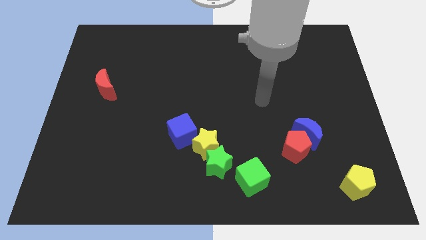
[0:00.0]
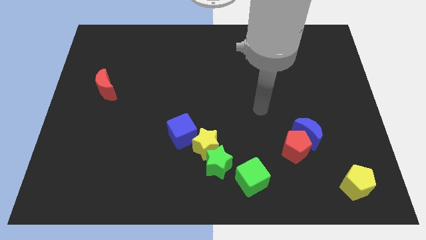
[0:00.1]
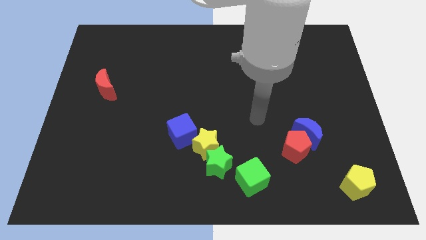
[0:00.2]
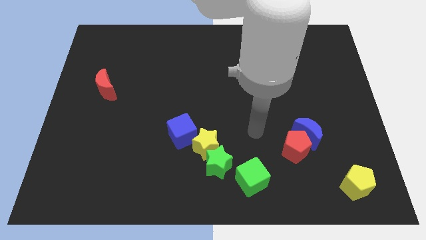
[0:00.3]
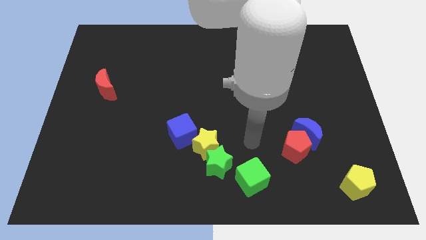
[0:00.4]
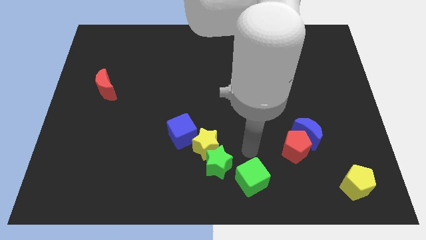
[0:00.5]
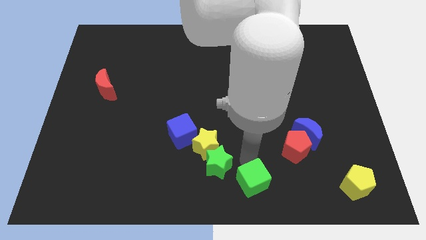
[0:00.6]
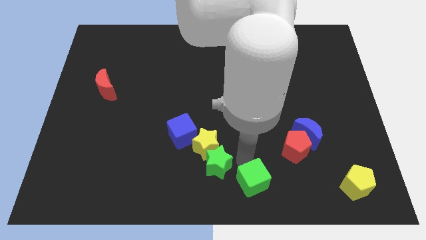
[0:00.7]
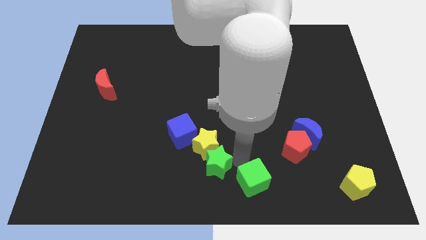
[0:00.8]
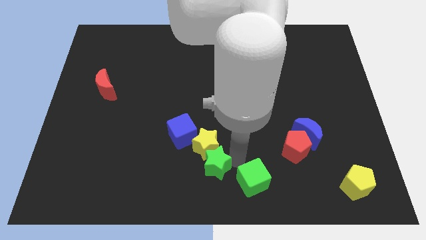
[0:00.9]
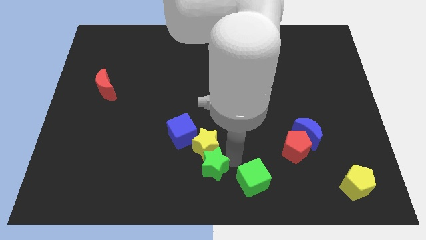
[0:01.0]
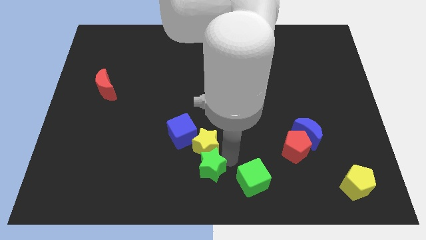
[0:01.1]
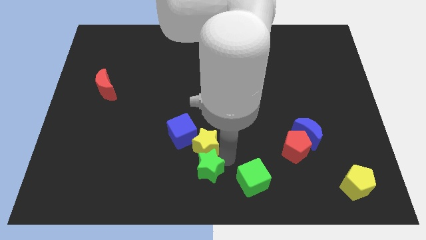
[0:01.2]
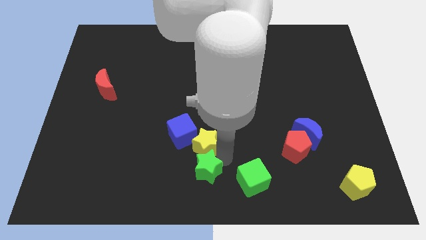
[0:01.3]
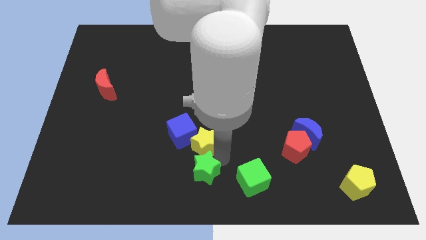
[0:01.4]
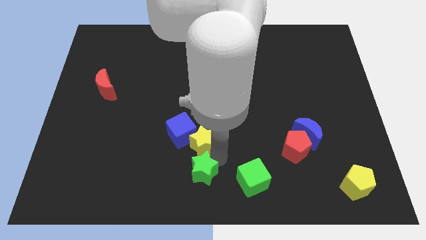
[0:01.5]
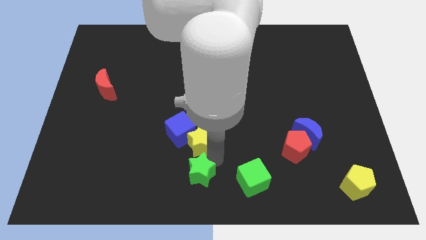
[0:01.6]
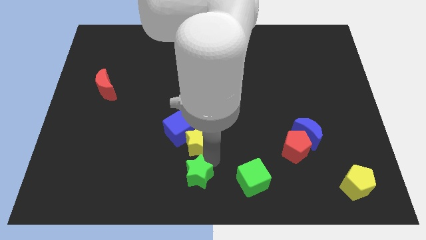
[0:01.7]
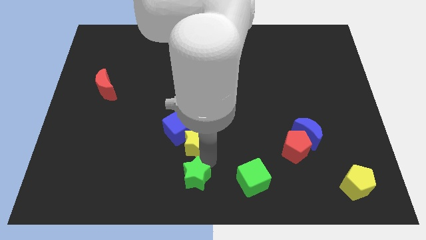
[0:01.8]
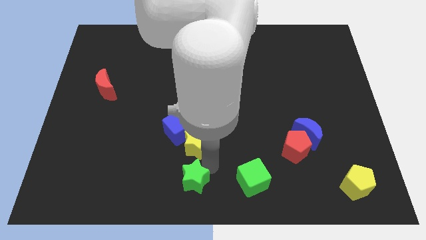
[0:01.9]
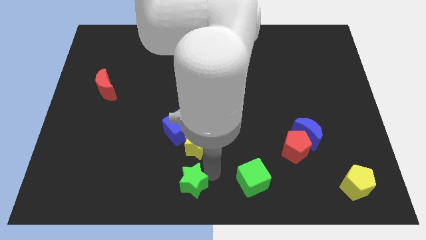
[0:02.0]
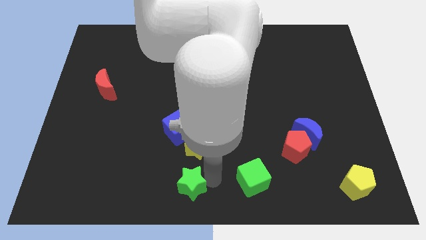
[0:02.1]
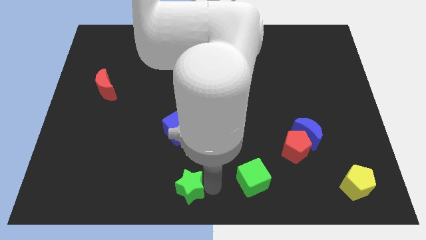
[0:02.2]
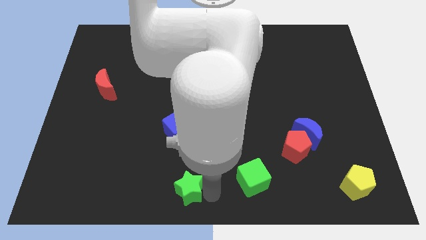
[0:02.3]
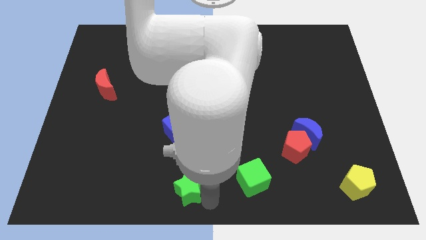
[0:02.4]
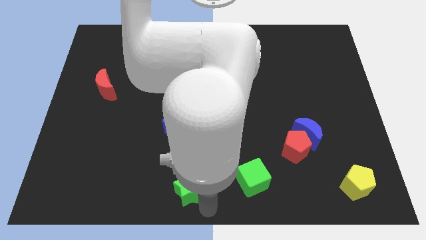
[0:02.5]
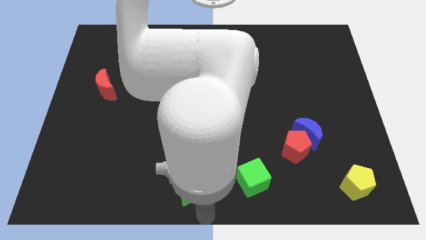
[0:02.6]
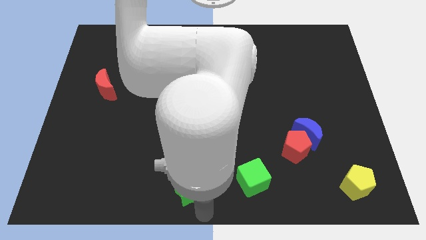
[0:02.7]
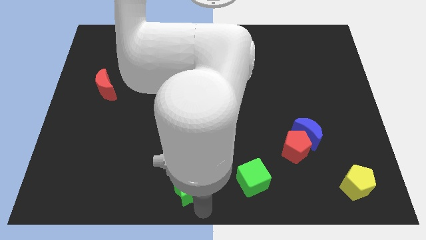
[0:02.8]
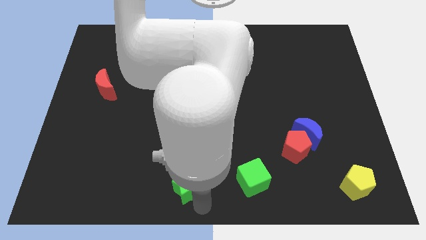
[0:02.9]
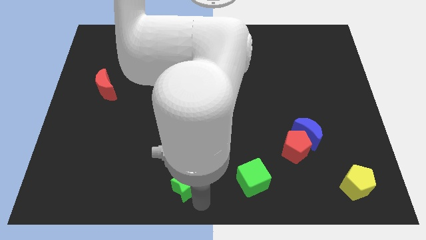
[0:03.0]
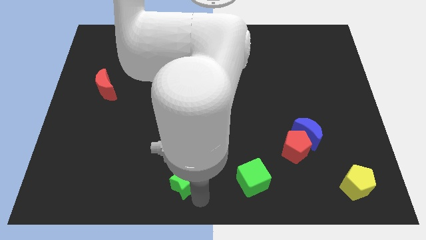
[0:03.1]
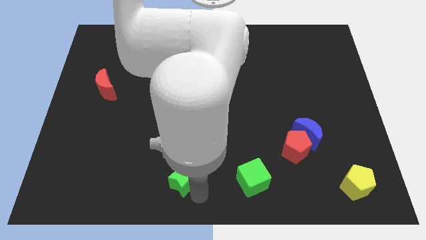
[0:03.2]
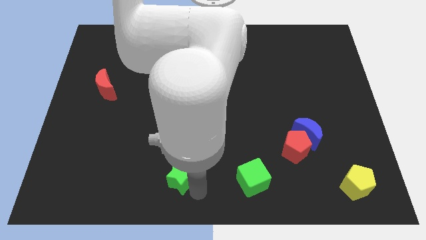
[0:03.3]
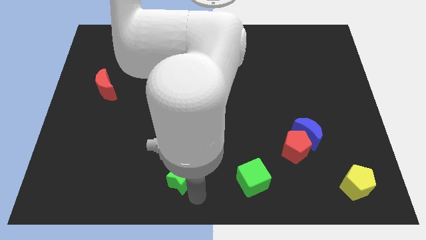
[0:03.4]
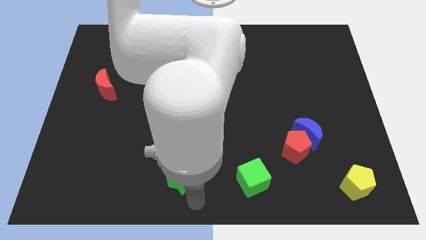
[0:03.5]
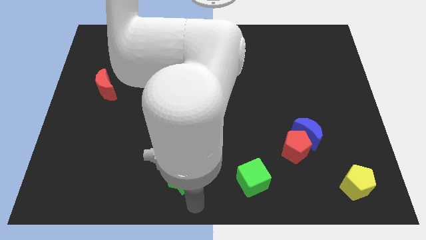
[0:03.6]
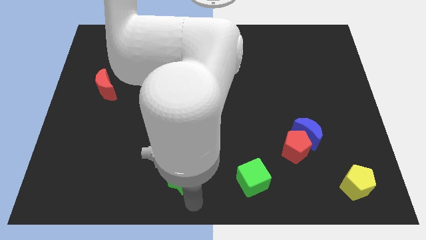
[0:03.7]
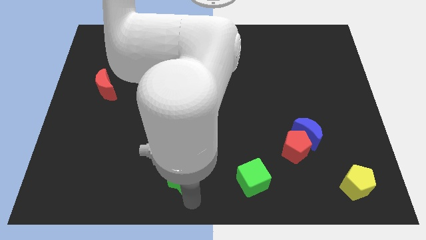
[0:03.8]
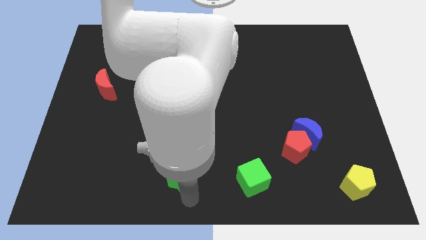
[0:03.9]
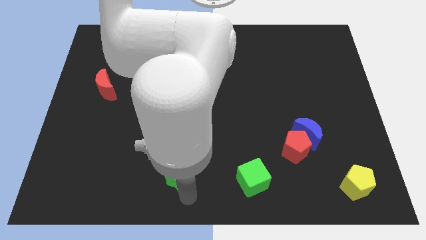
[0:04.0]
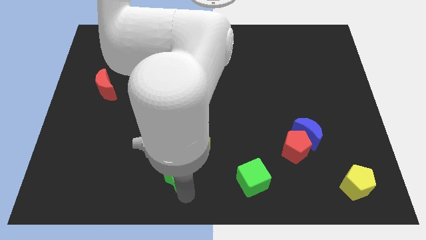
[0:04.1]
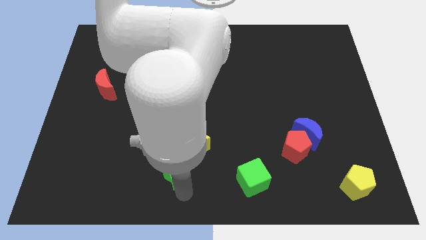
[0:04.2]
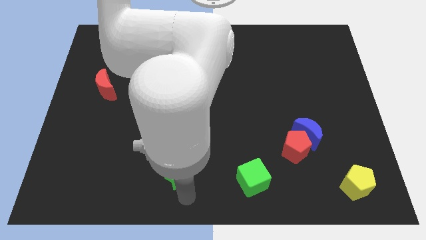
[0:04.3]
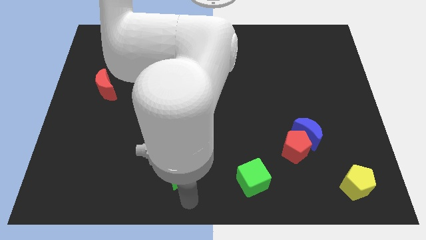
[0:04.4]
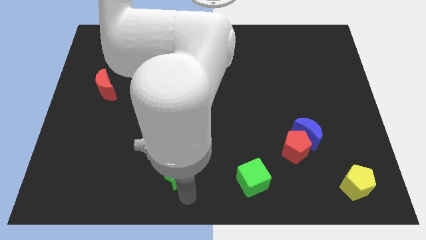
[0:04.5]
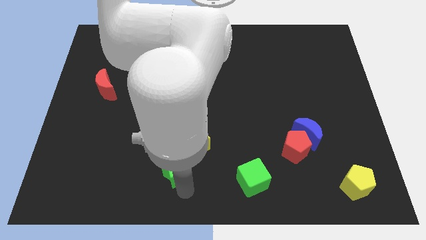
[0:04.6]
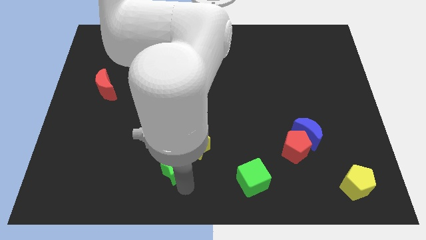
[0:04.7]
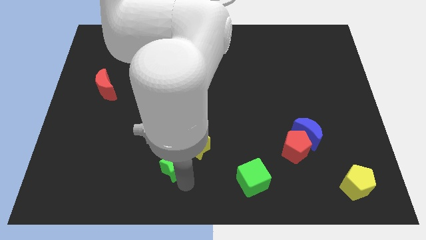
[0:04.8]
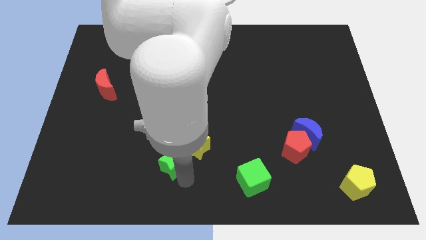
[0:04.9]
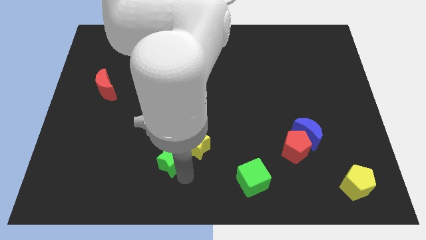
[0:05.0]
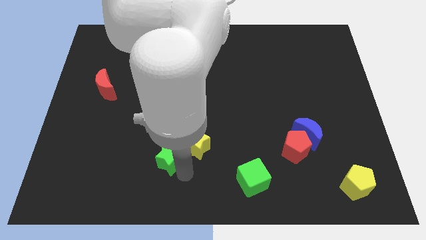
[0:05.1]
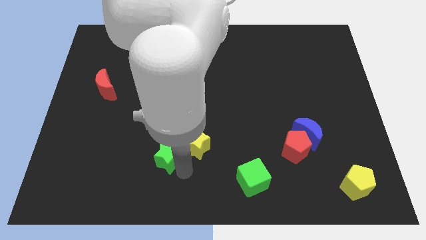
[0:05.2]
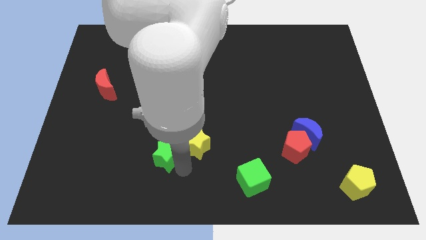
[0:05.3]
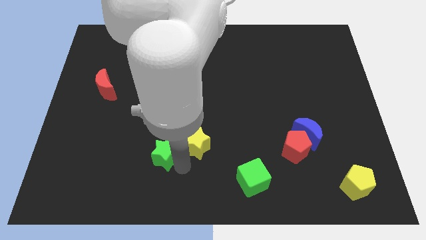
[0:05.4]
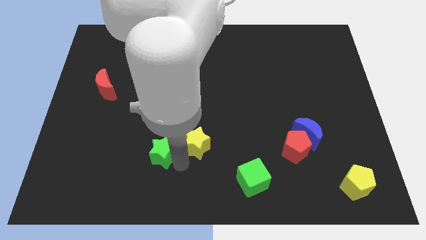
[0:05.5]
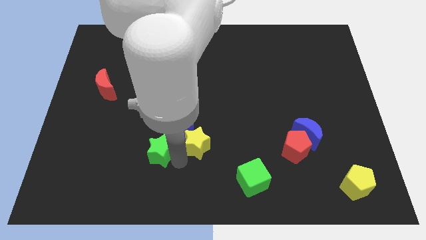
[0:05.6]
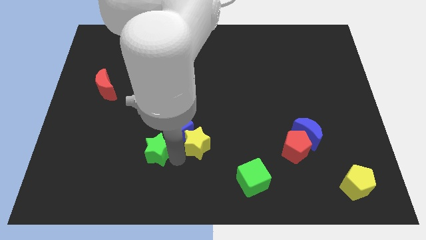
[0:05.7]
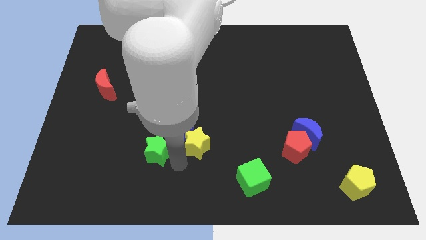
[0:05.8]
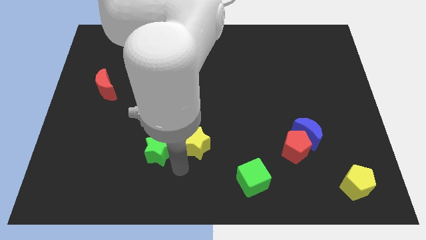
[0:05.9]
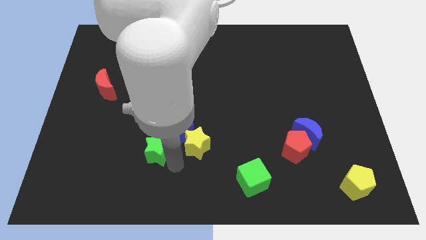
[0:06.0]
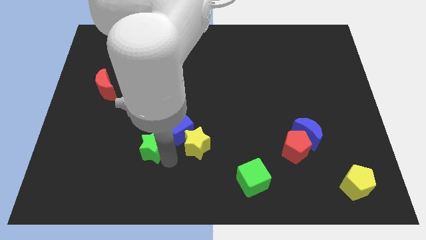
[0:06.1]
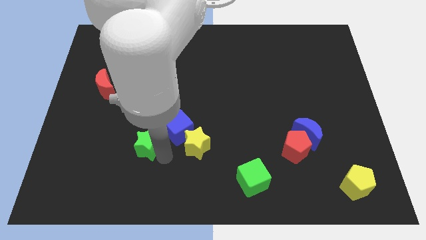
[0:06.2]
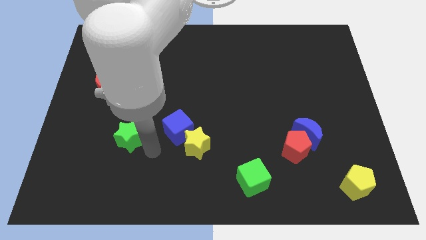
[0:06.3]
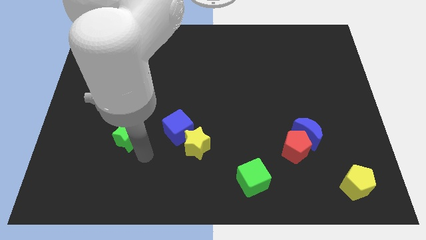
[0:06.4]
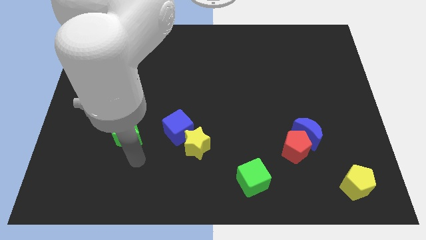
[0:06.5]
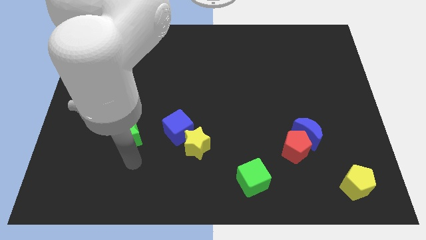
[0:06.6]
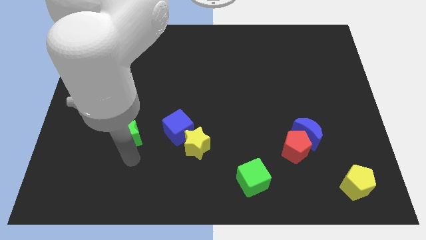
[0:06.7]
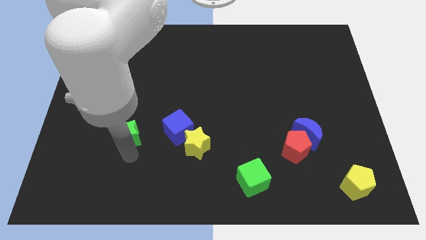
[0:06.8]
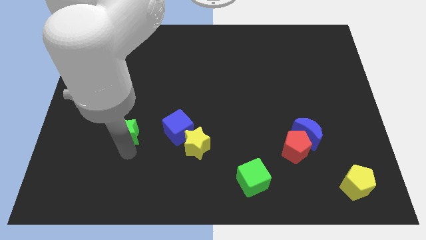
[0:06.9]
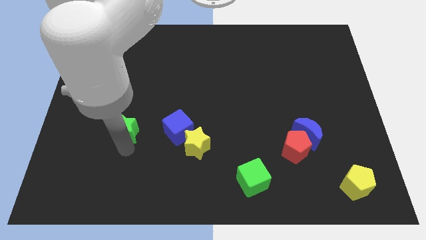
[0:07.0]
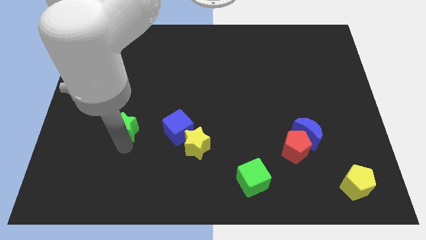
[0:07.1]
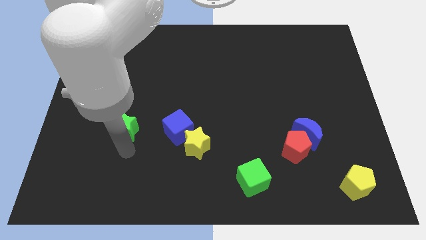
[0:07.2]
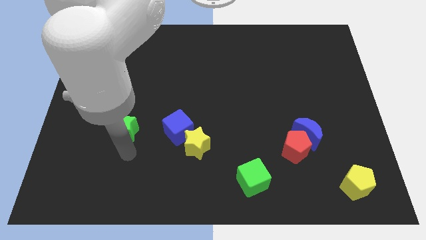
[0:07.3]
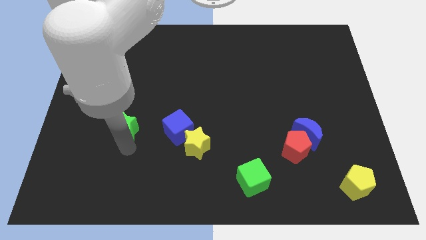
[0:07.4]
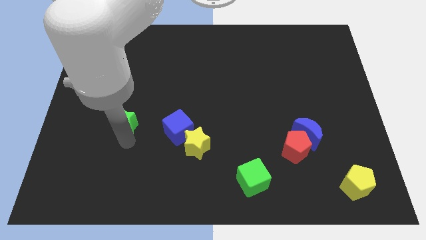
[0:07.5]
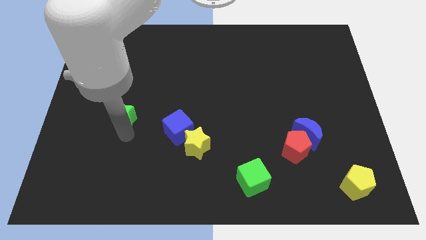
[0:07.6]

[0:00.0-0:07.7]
push the green star to the bottom right side of the red moon

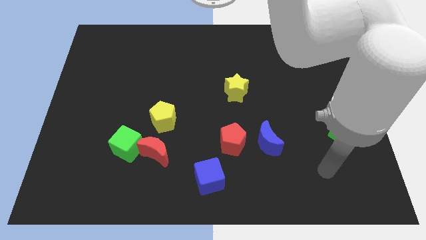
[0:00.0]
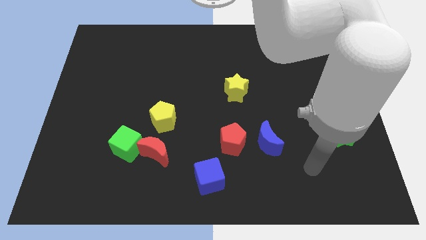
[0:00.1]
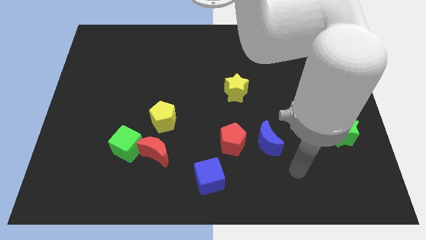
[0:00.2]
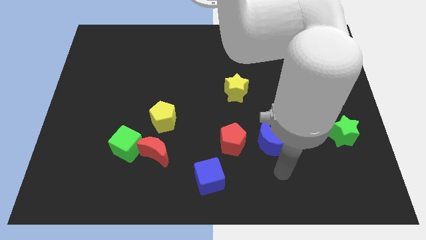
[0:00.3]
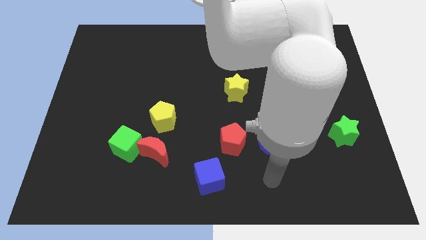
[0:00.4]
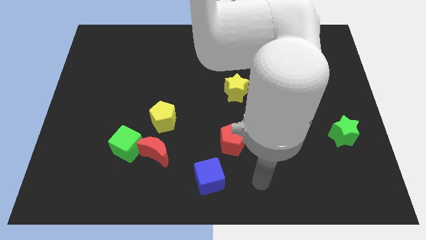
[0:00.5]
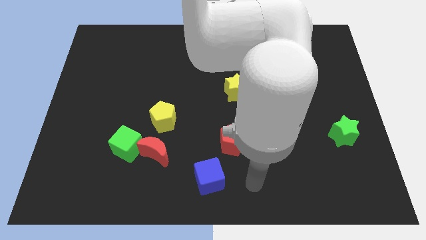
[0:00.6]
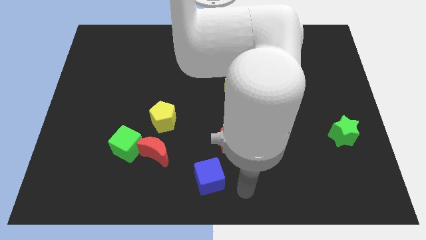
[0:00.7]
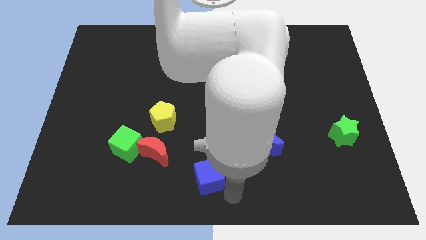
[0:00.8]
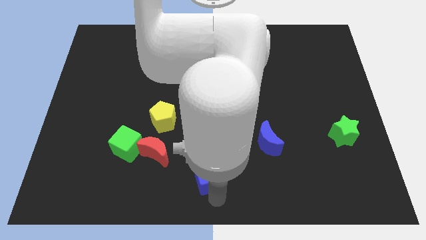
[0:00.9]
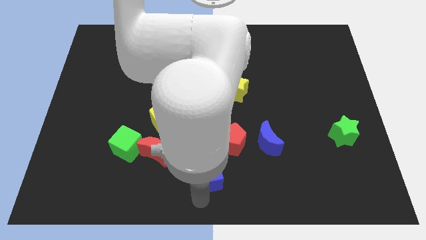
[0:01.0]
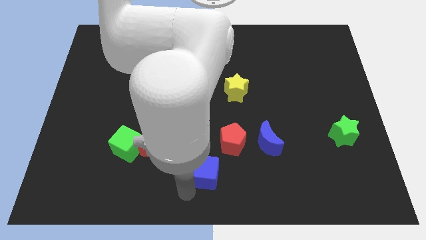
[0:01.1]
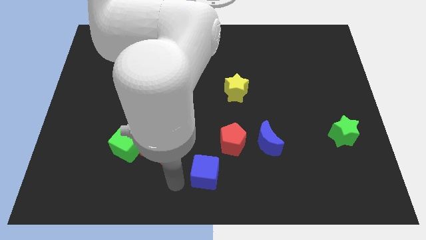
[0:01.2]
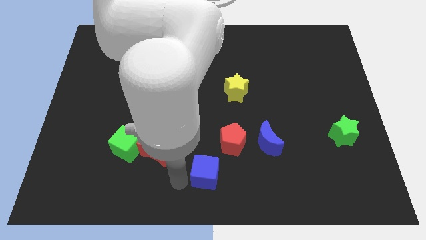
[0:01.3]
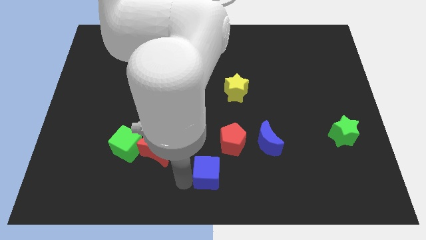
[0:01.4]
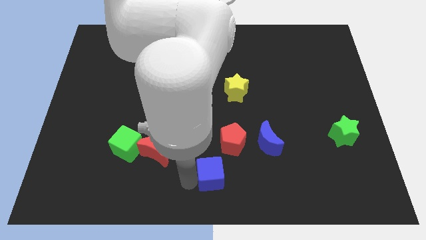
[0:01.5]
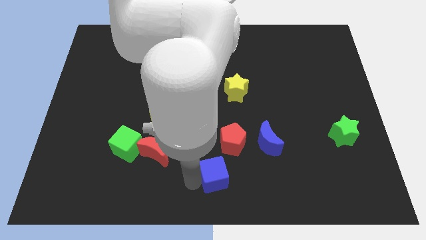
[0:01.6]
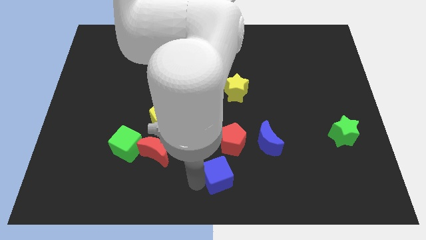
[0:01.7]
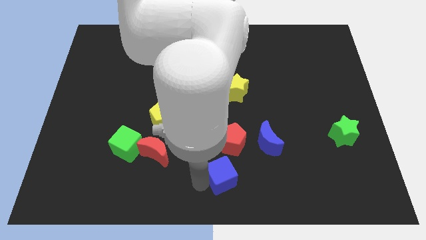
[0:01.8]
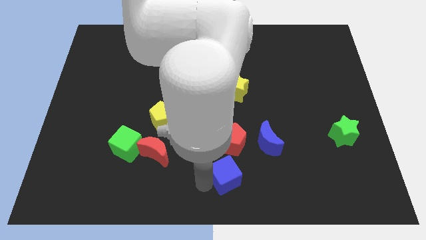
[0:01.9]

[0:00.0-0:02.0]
slide the blue cube to the bottom left side of the blue moon
